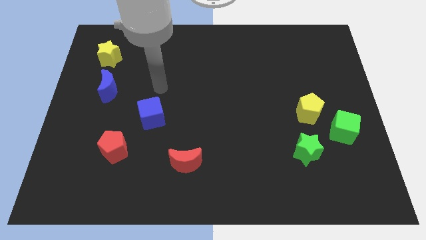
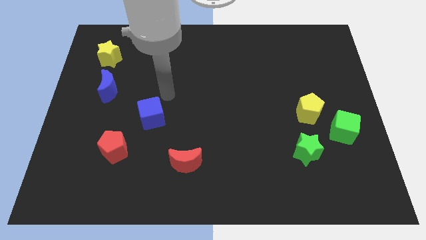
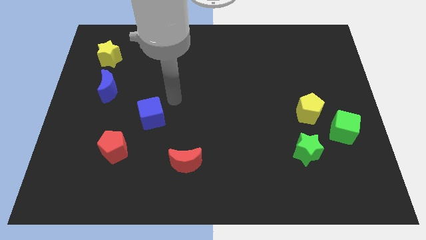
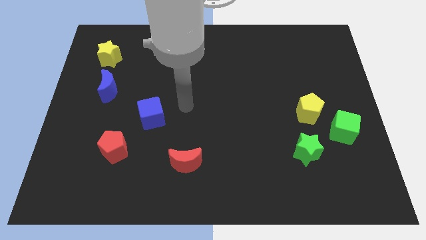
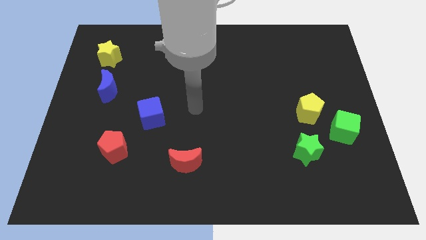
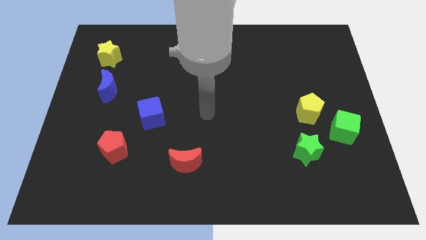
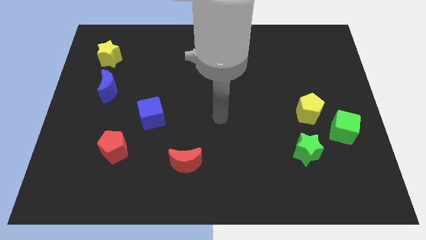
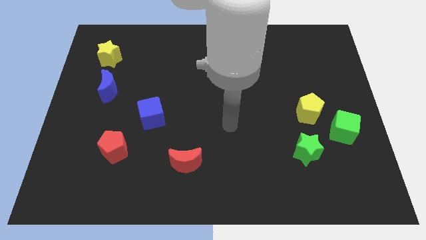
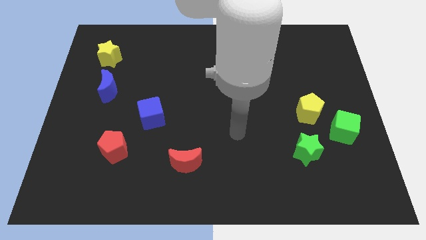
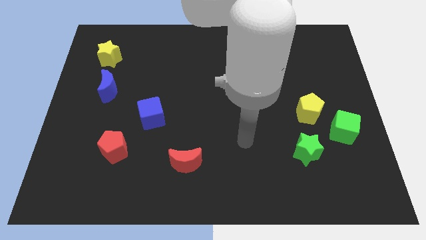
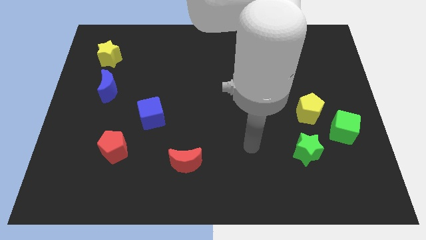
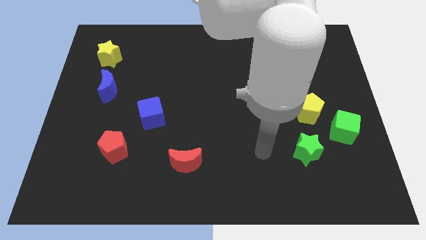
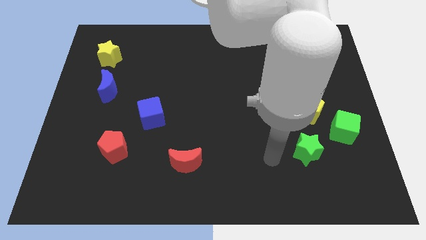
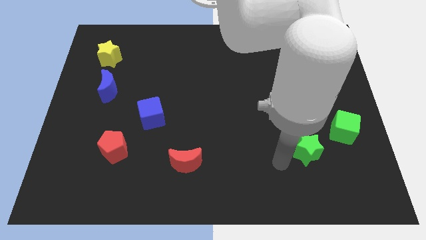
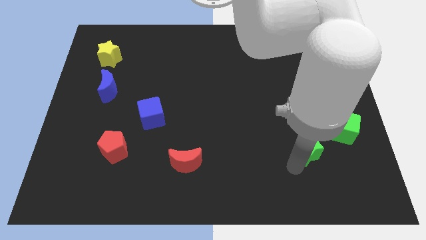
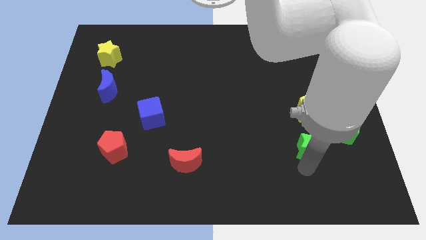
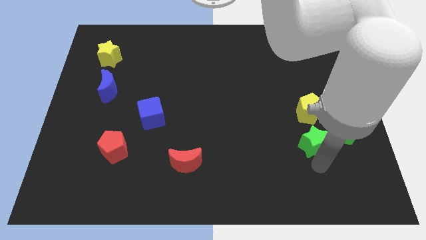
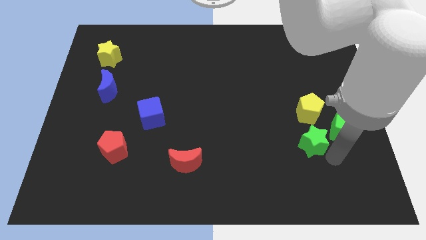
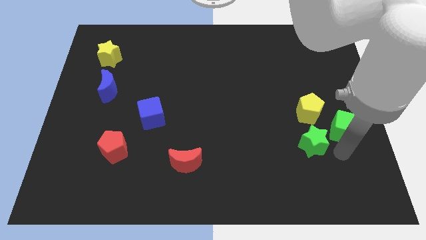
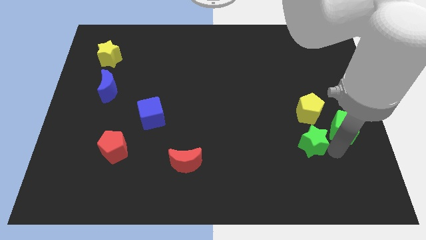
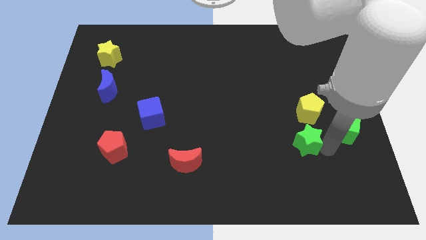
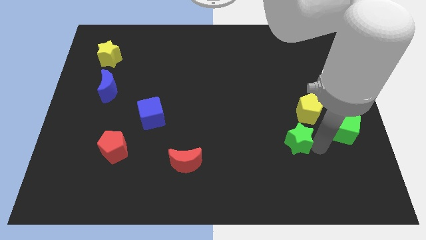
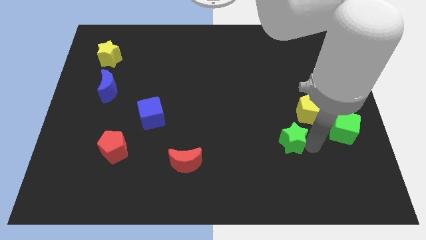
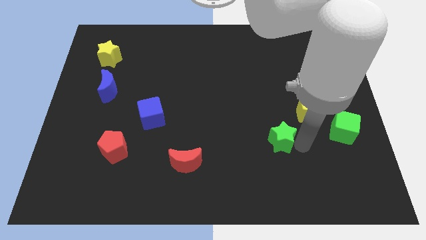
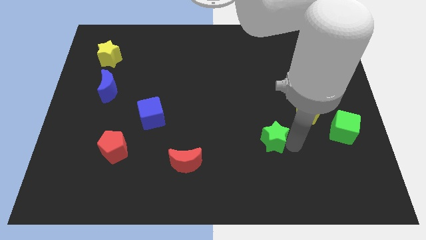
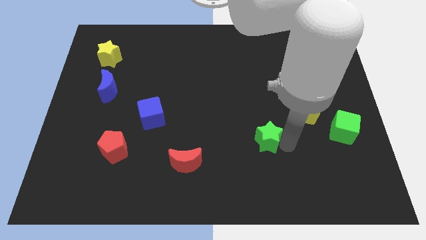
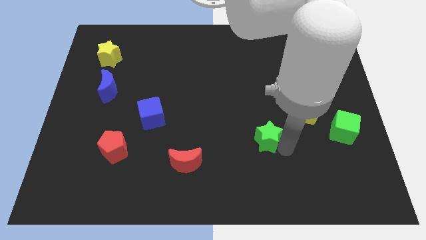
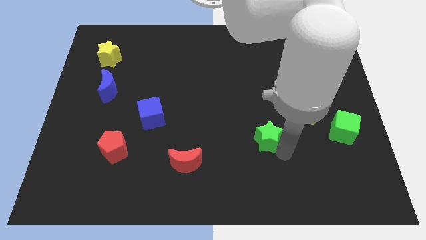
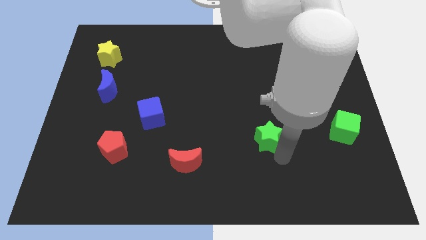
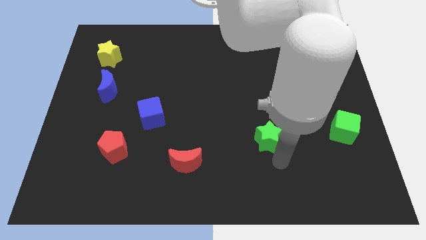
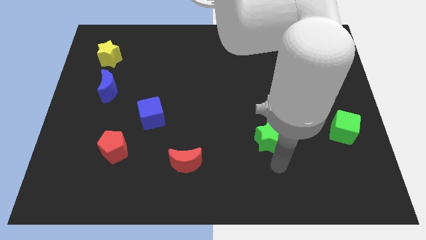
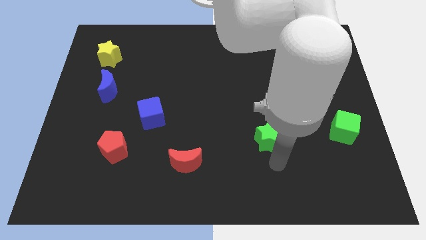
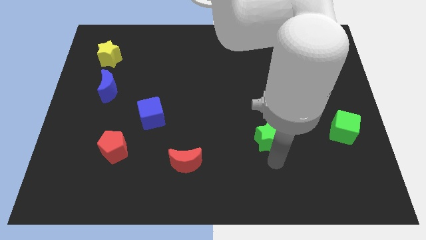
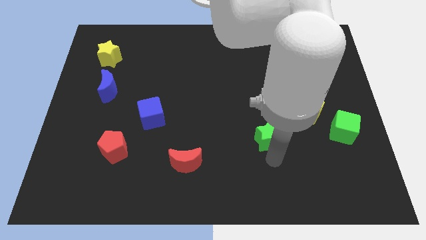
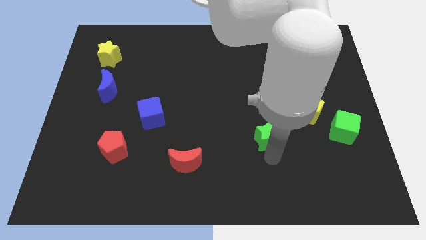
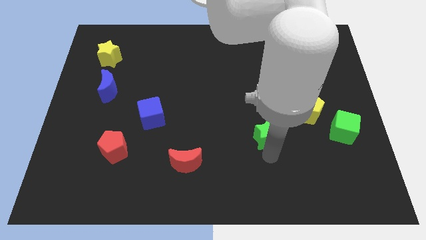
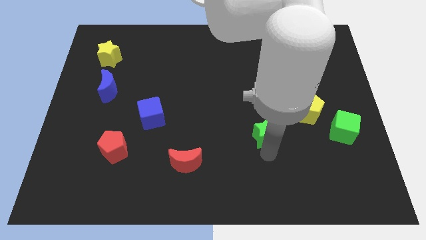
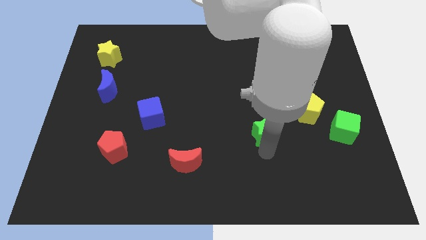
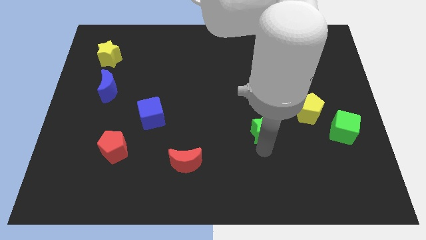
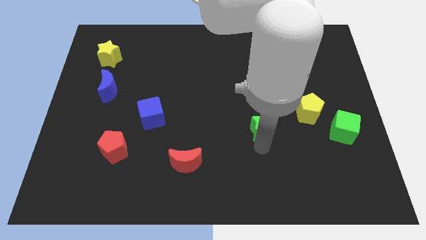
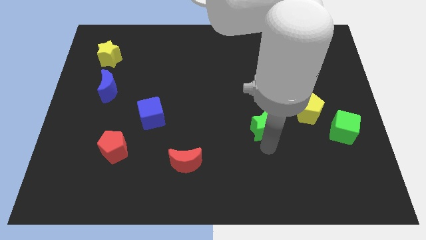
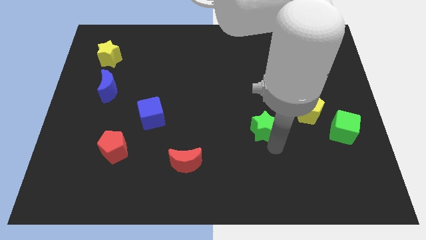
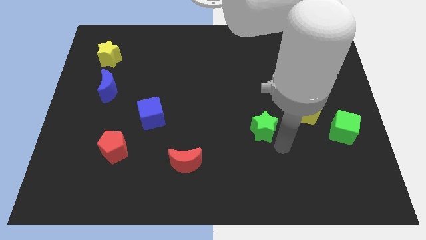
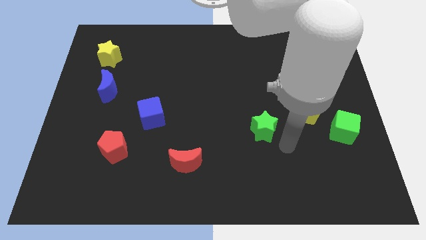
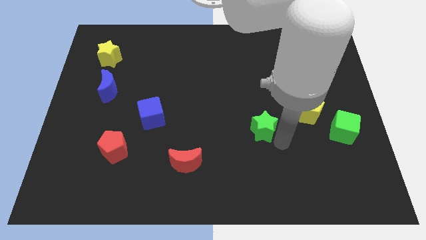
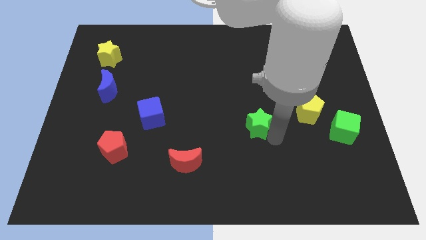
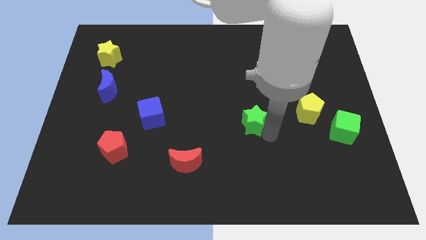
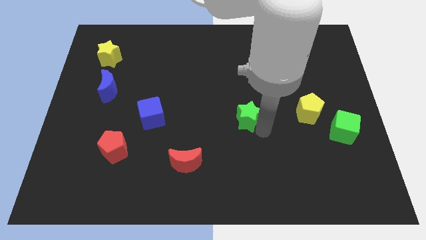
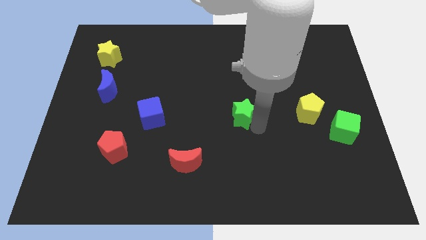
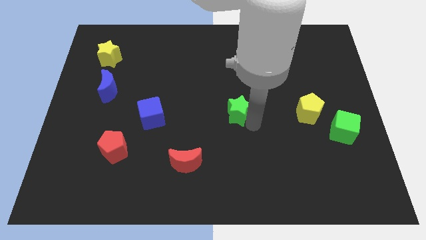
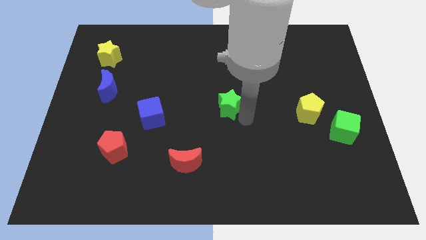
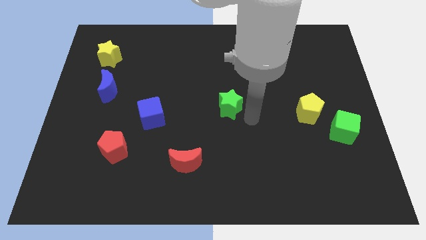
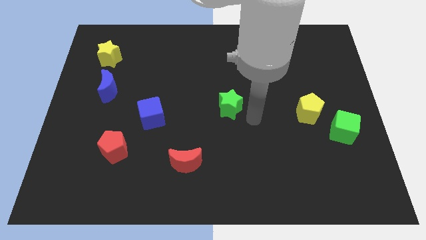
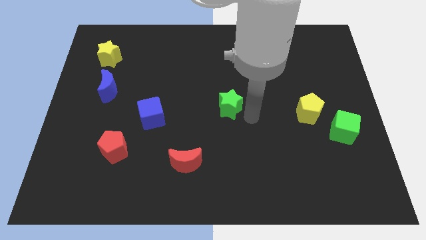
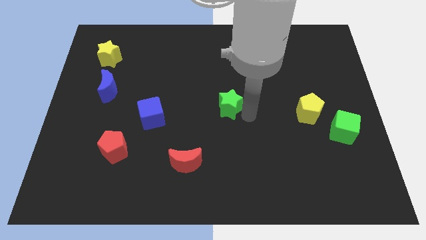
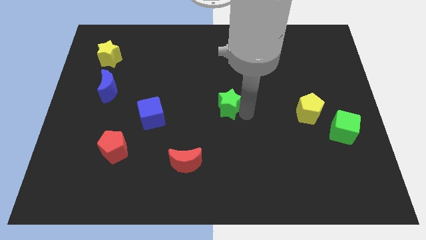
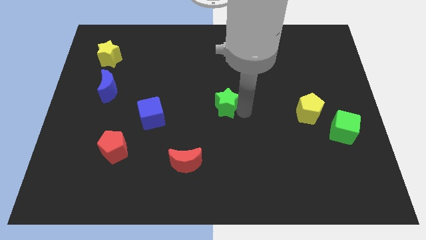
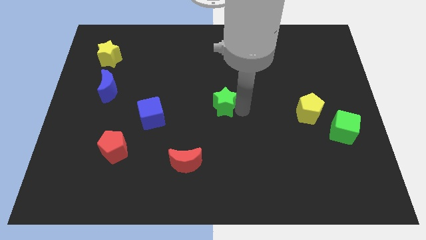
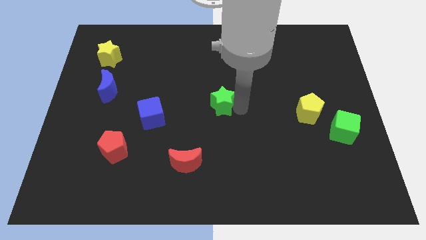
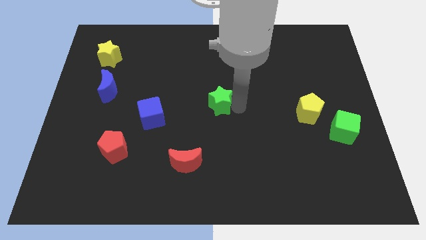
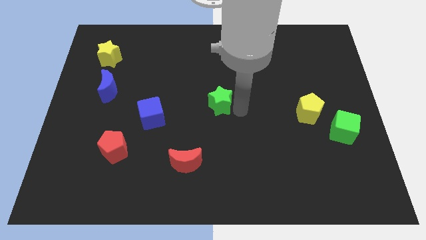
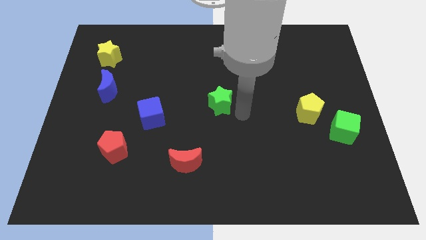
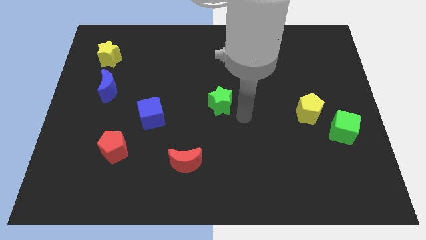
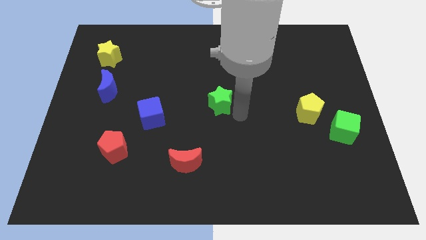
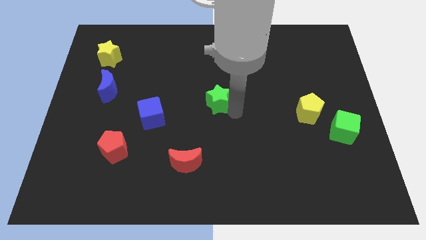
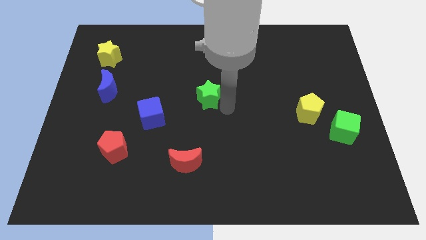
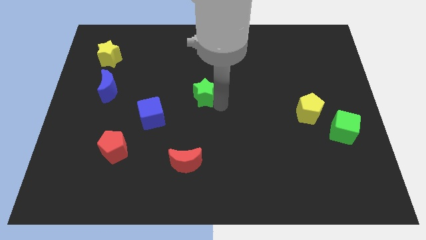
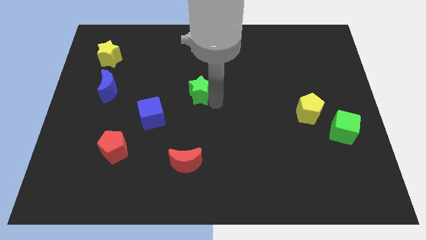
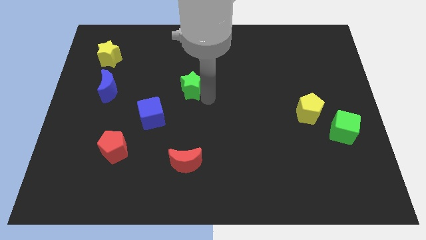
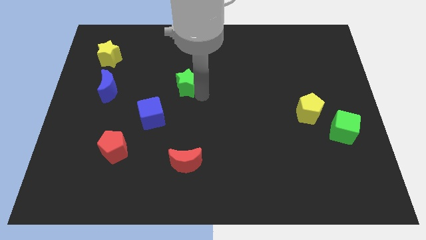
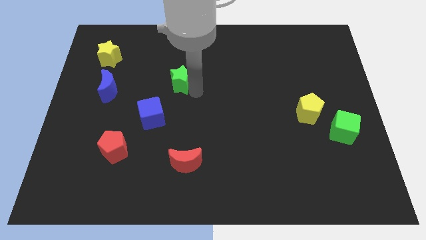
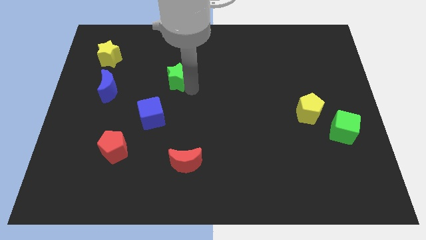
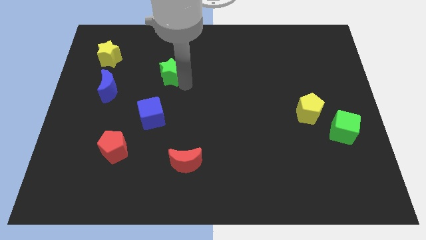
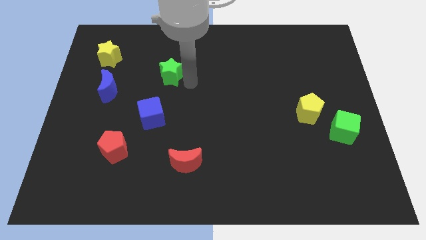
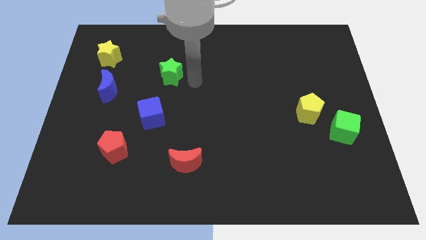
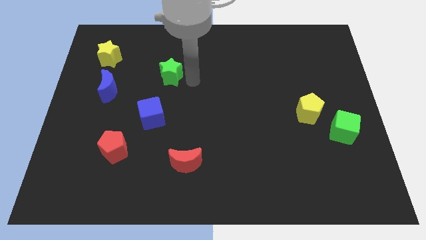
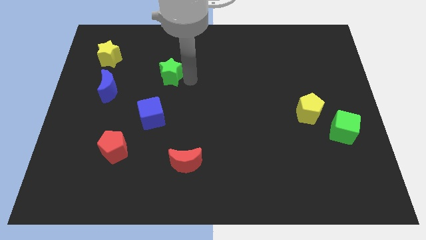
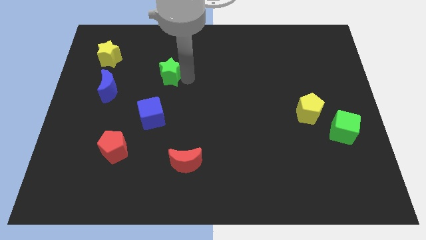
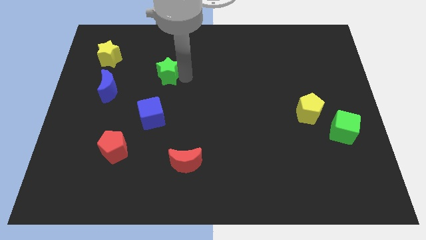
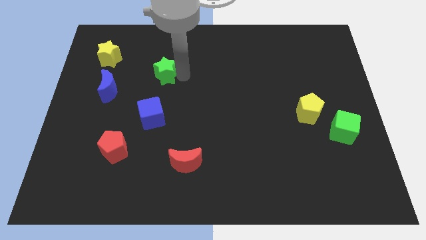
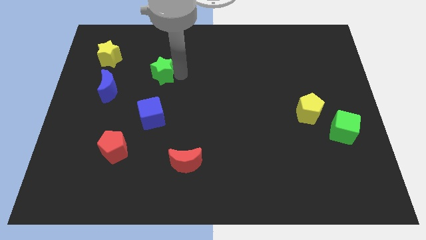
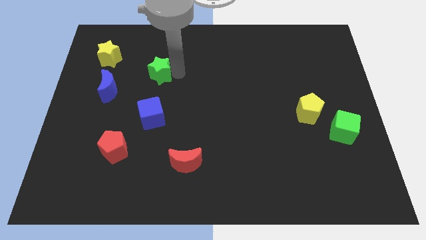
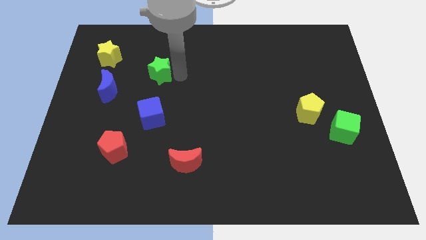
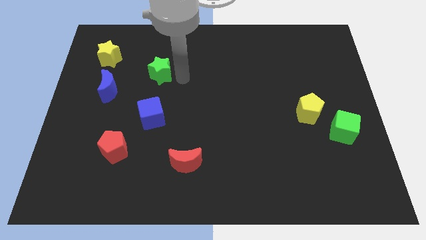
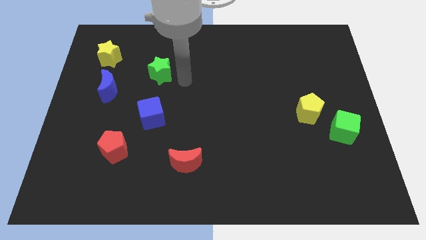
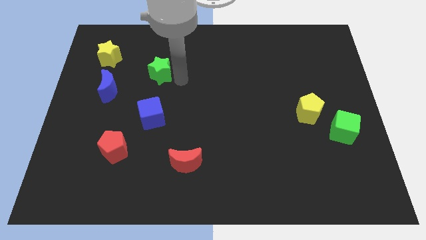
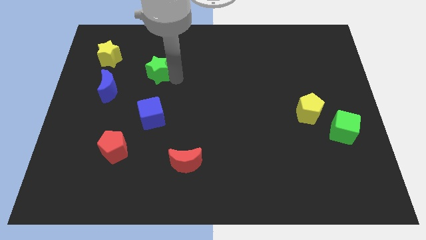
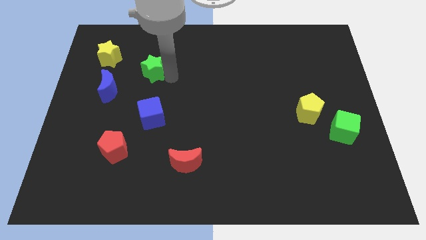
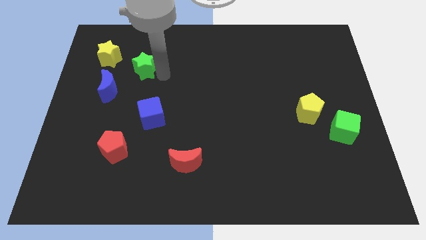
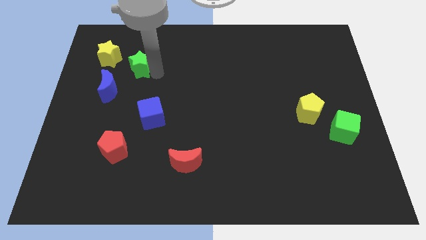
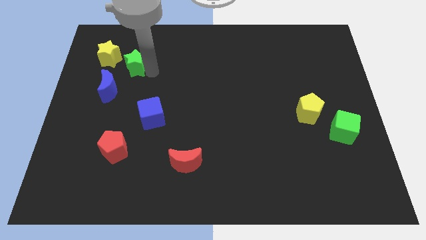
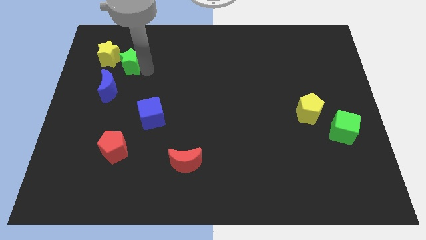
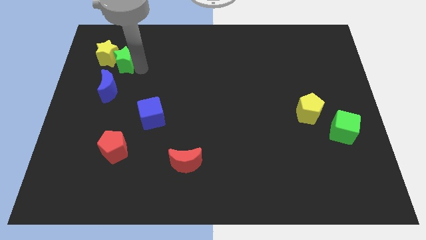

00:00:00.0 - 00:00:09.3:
put the green star to the yellow star
